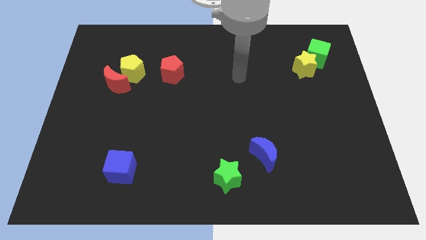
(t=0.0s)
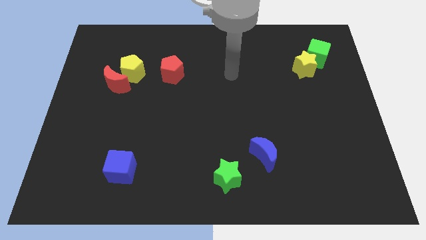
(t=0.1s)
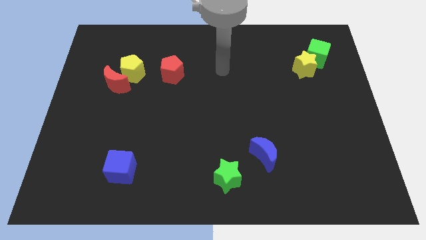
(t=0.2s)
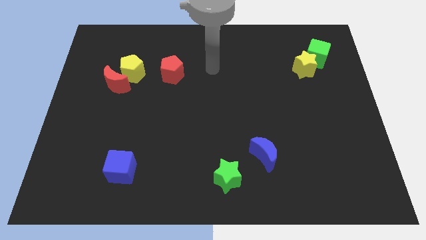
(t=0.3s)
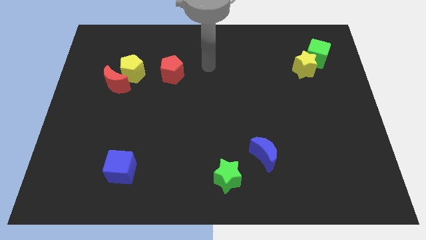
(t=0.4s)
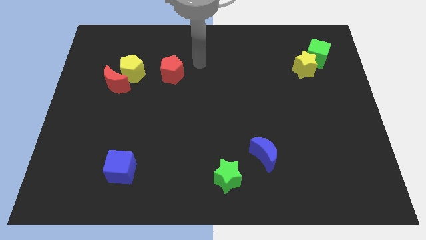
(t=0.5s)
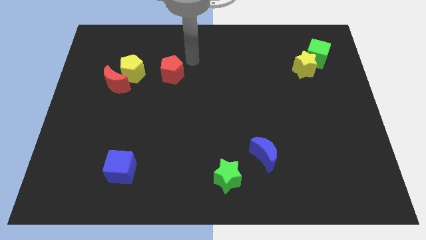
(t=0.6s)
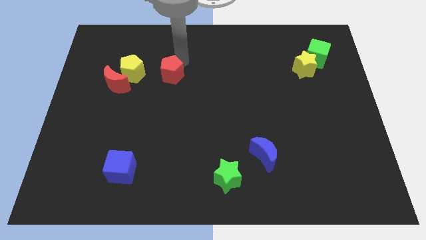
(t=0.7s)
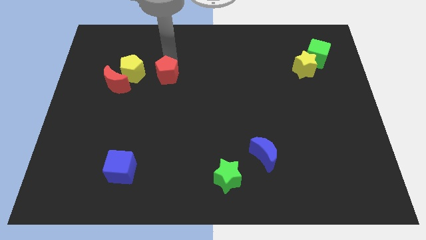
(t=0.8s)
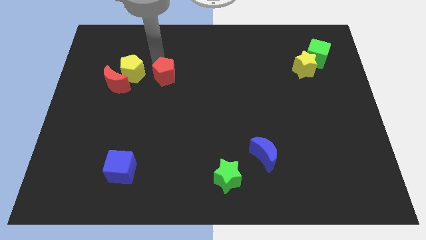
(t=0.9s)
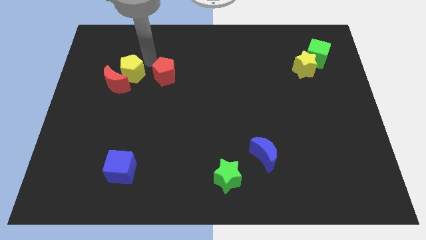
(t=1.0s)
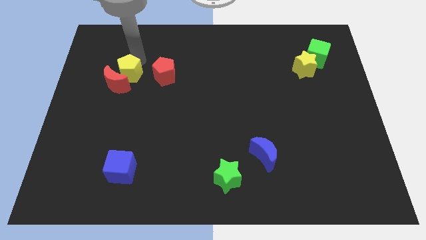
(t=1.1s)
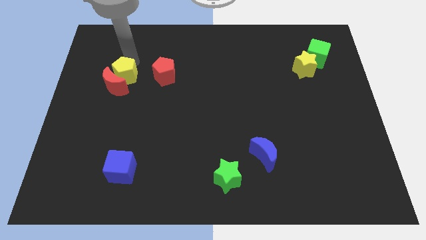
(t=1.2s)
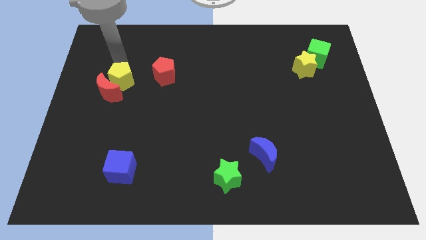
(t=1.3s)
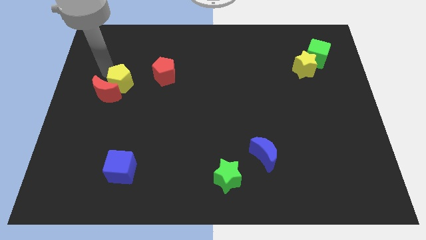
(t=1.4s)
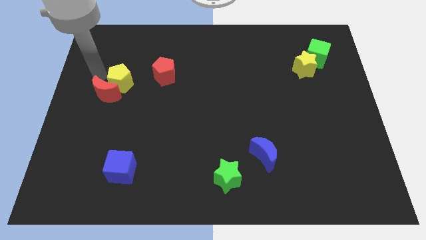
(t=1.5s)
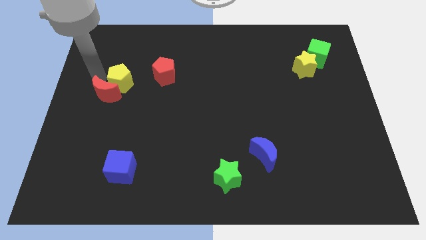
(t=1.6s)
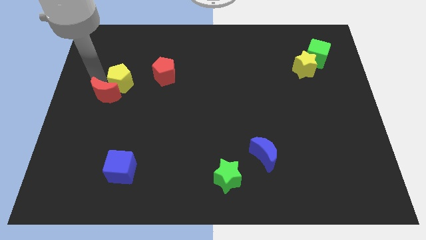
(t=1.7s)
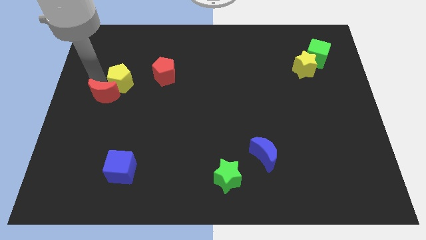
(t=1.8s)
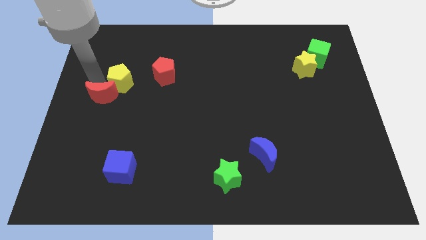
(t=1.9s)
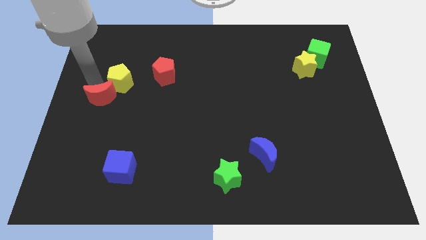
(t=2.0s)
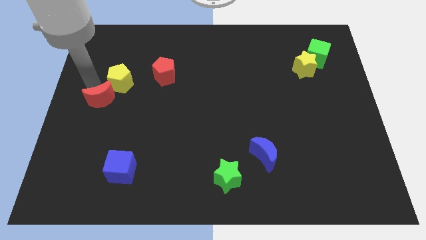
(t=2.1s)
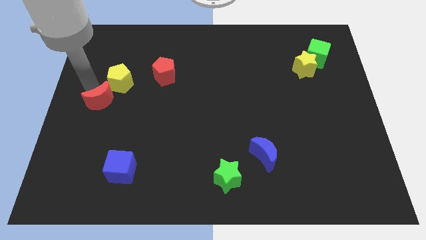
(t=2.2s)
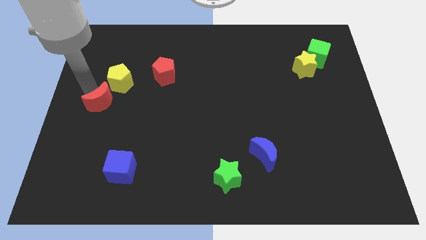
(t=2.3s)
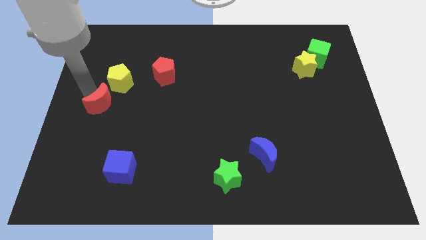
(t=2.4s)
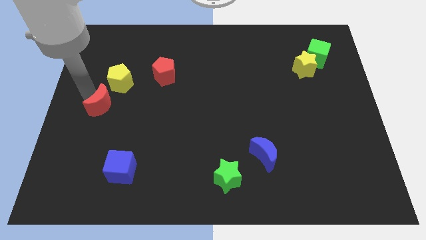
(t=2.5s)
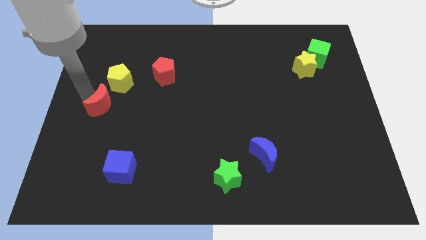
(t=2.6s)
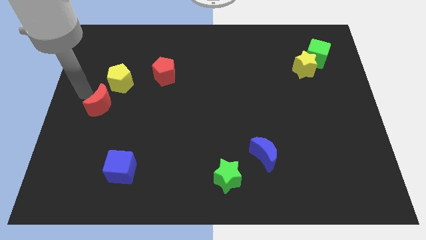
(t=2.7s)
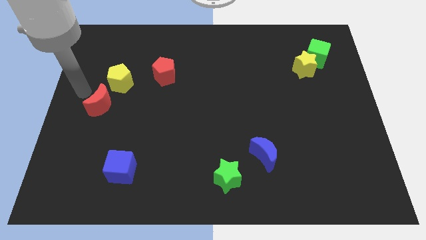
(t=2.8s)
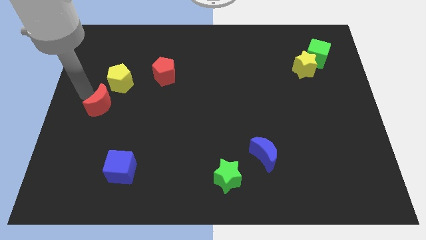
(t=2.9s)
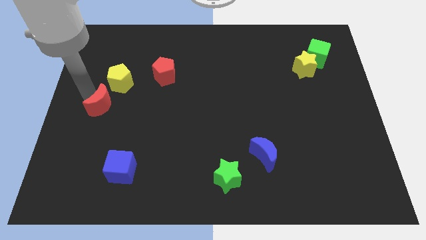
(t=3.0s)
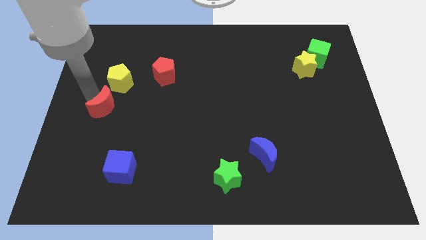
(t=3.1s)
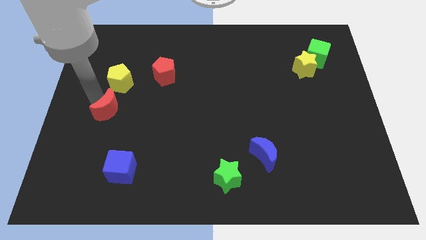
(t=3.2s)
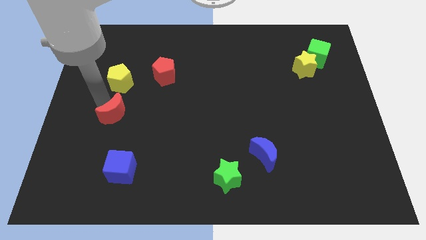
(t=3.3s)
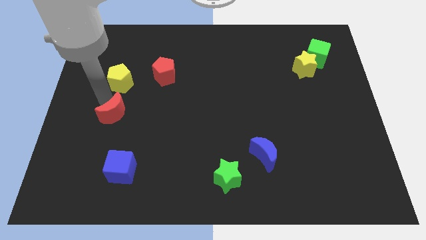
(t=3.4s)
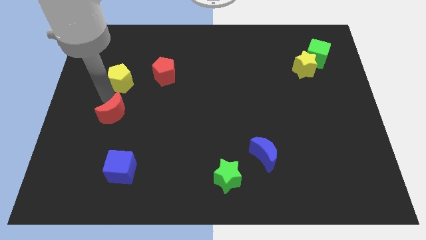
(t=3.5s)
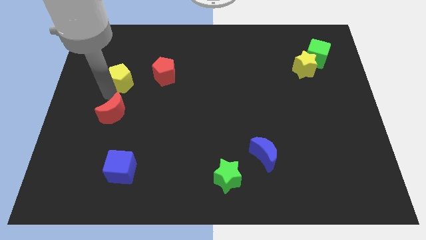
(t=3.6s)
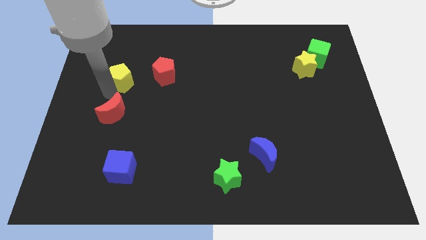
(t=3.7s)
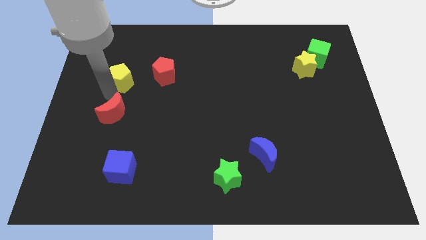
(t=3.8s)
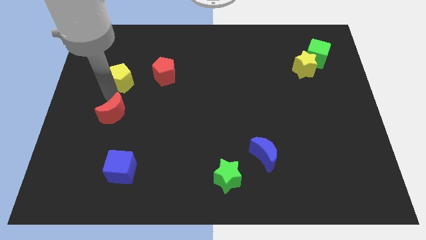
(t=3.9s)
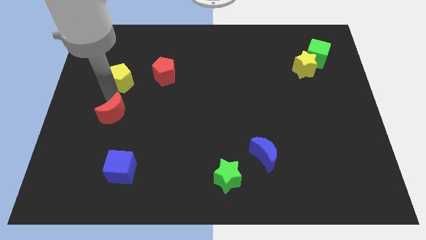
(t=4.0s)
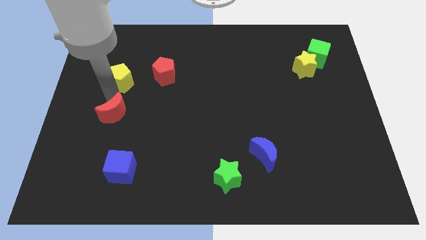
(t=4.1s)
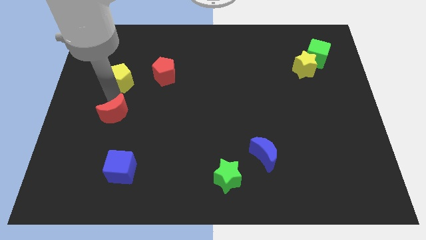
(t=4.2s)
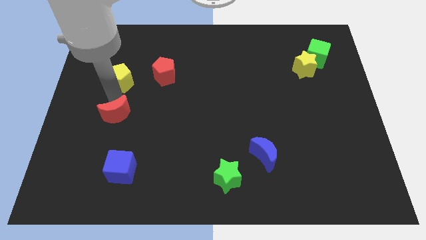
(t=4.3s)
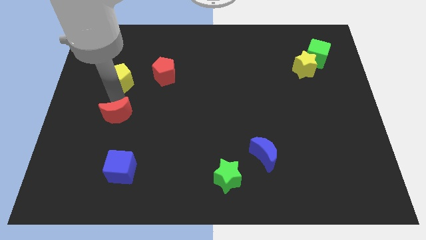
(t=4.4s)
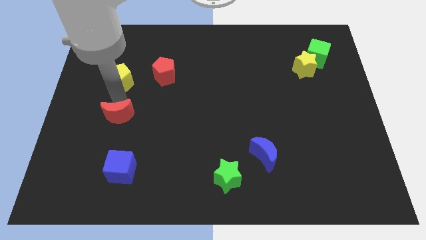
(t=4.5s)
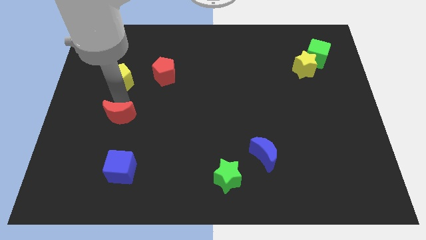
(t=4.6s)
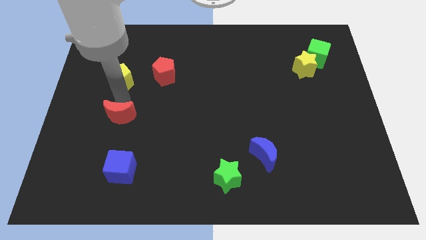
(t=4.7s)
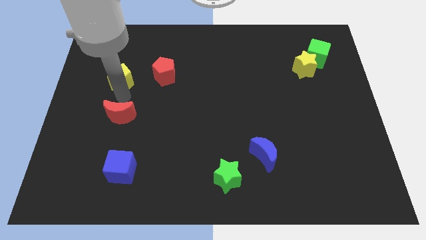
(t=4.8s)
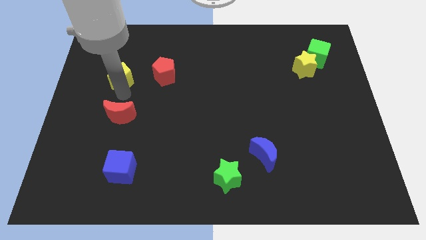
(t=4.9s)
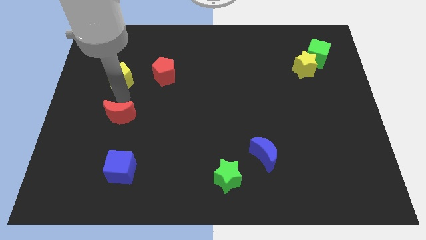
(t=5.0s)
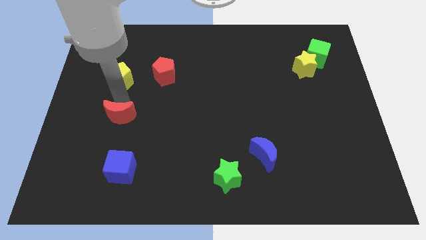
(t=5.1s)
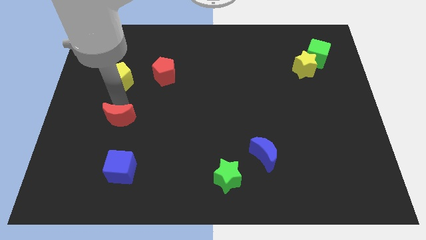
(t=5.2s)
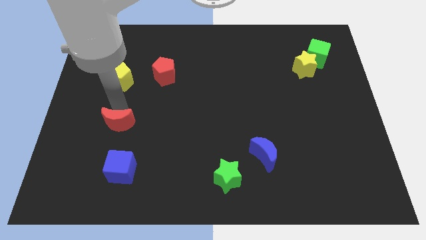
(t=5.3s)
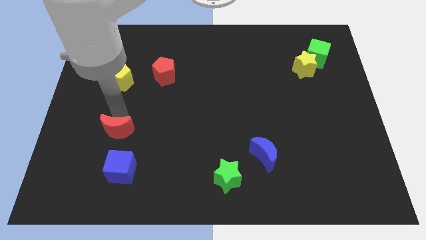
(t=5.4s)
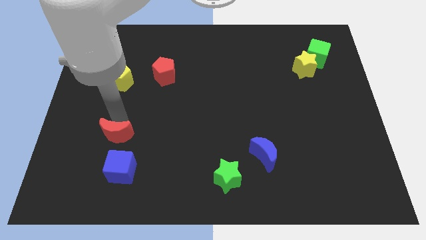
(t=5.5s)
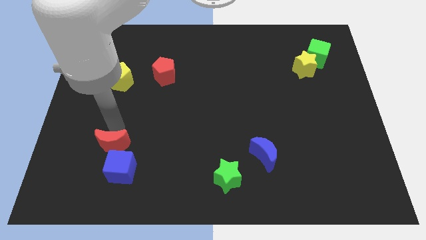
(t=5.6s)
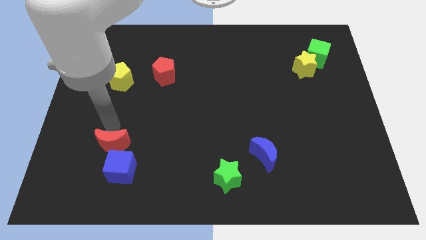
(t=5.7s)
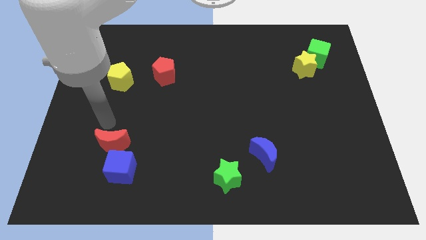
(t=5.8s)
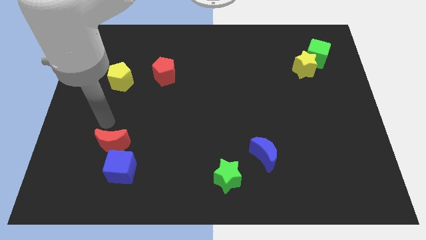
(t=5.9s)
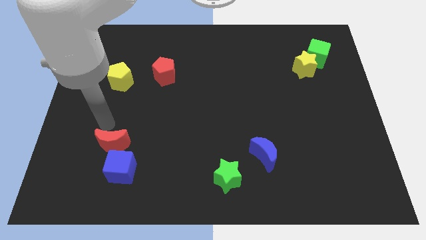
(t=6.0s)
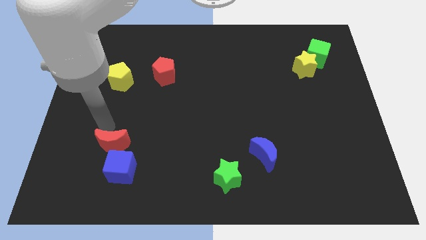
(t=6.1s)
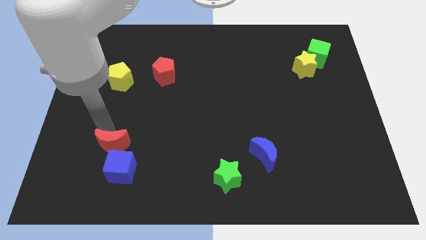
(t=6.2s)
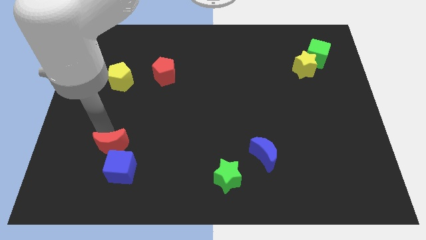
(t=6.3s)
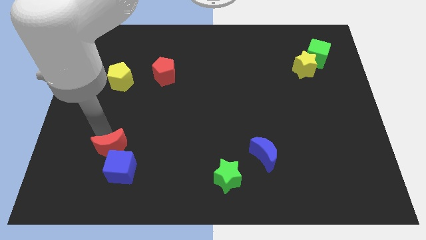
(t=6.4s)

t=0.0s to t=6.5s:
push the red moon towards the blue cube

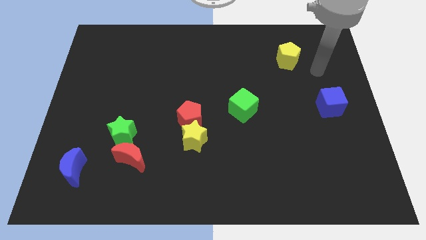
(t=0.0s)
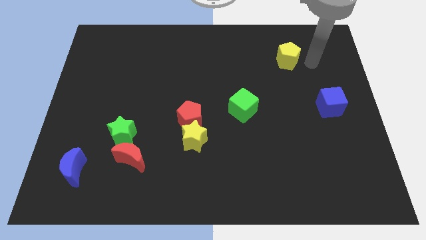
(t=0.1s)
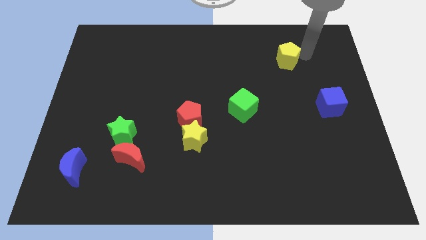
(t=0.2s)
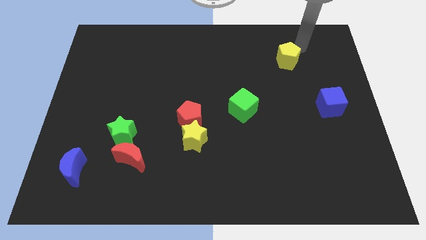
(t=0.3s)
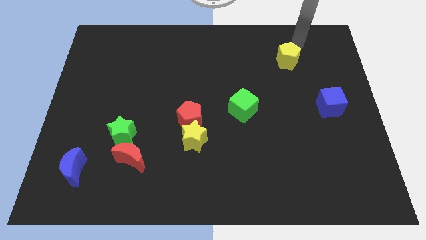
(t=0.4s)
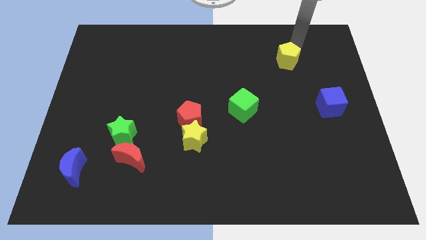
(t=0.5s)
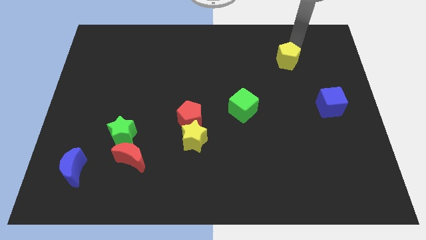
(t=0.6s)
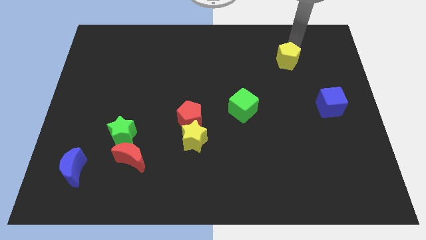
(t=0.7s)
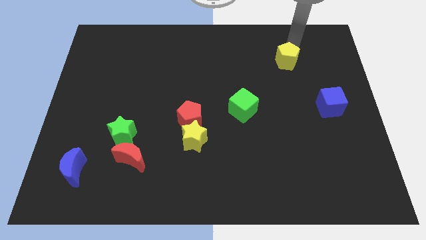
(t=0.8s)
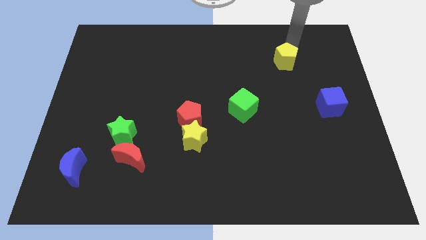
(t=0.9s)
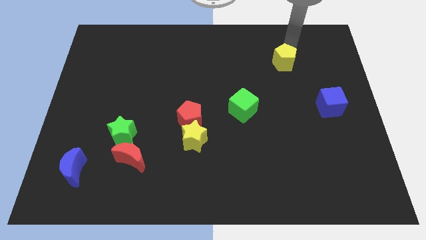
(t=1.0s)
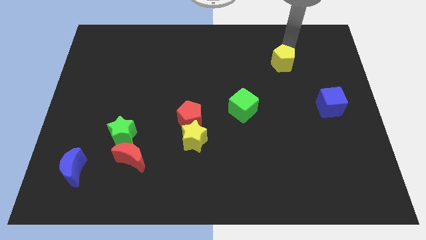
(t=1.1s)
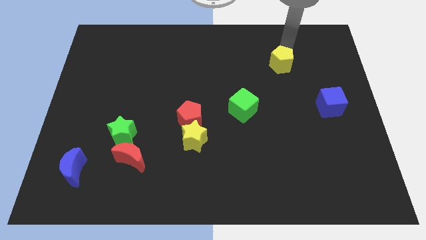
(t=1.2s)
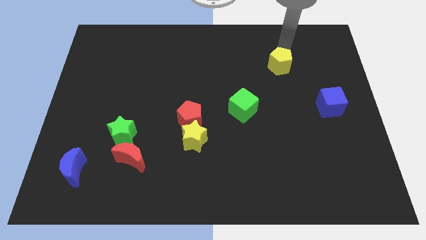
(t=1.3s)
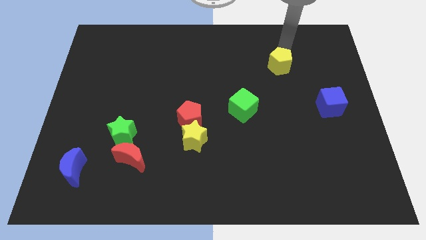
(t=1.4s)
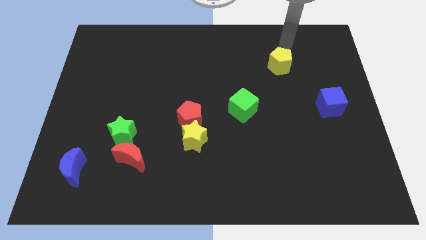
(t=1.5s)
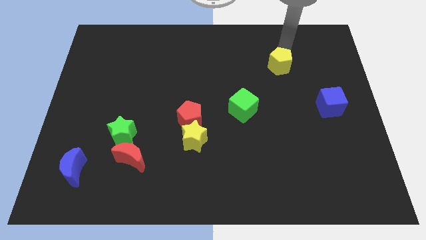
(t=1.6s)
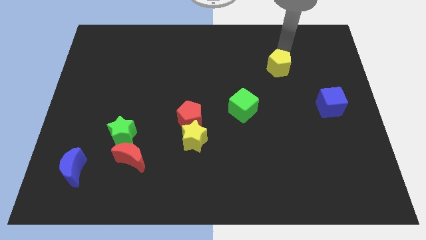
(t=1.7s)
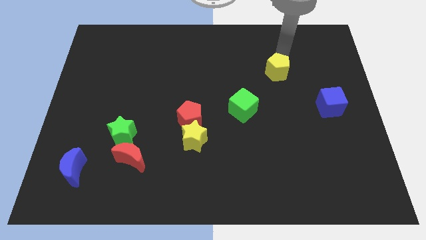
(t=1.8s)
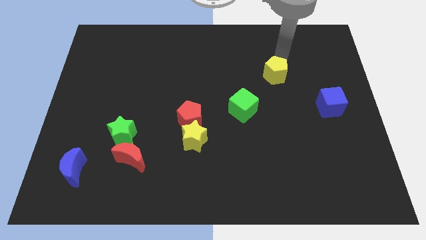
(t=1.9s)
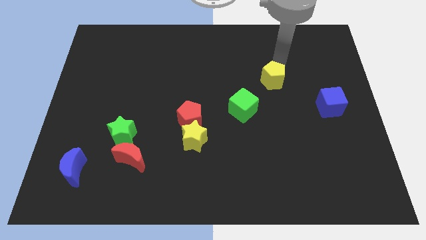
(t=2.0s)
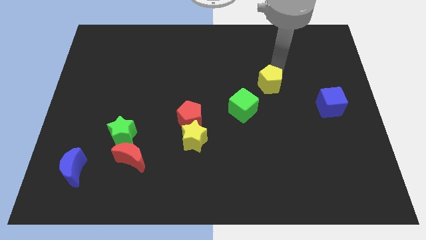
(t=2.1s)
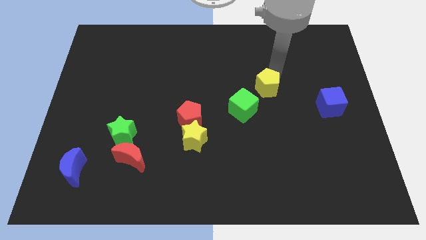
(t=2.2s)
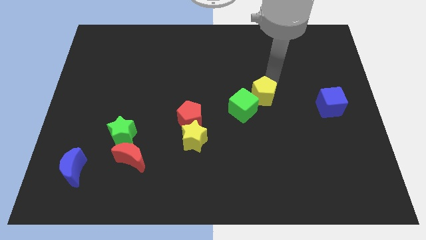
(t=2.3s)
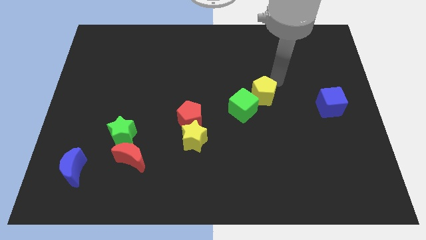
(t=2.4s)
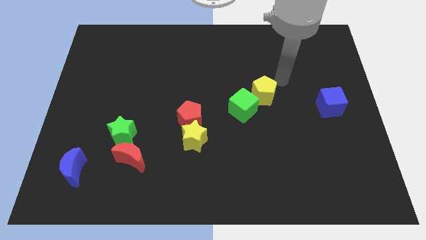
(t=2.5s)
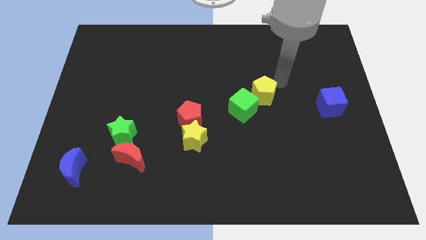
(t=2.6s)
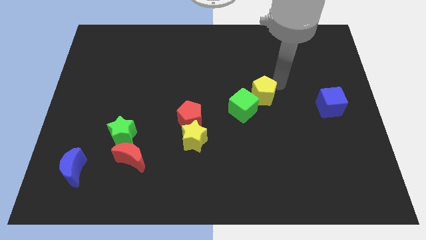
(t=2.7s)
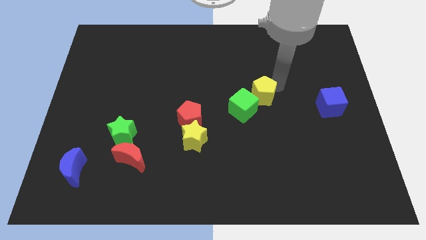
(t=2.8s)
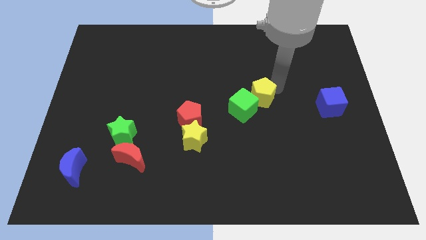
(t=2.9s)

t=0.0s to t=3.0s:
push the yellow pentagon towards the green cube
